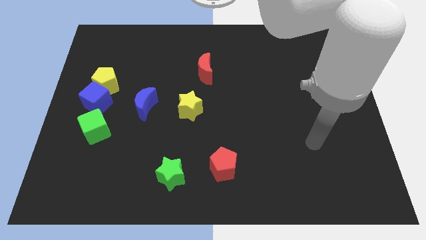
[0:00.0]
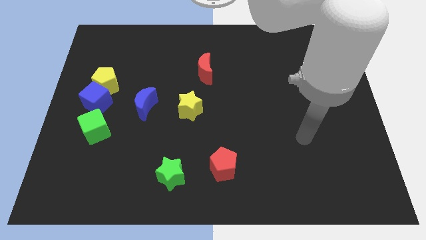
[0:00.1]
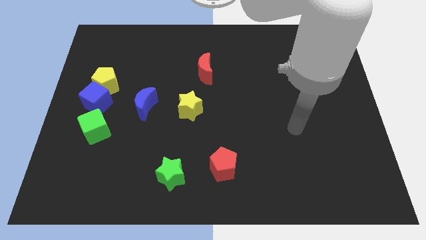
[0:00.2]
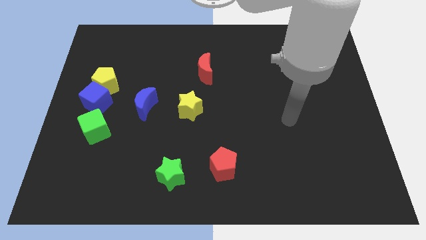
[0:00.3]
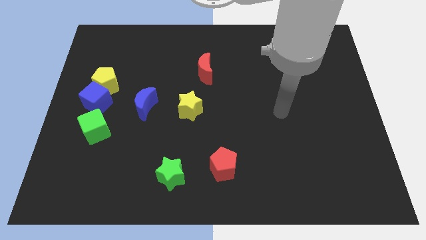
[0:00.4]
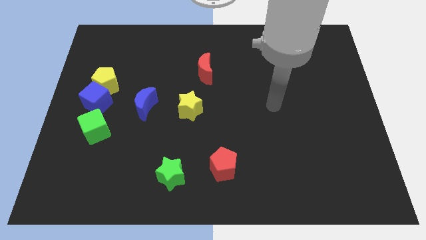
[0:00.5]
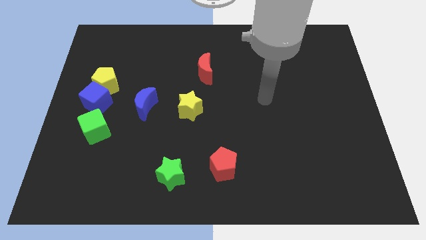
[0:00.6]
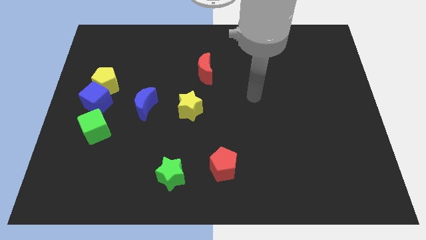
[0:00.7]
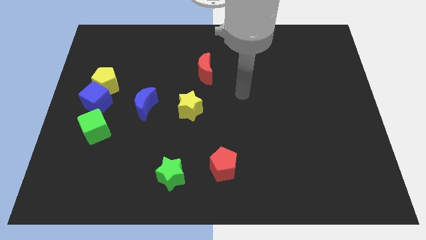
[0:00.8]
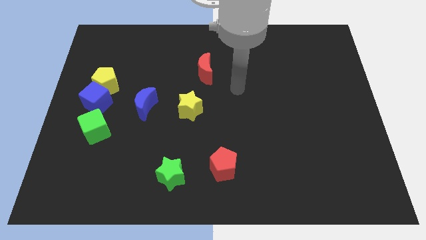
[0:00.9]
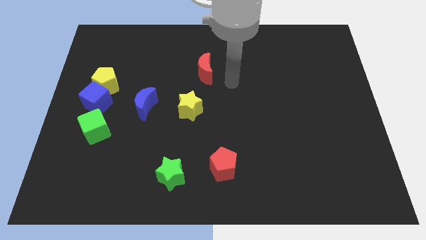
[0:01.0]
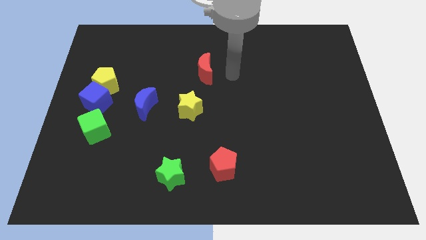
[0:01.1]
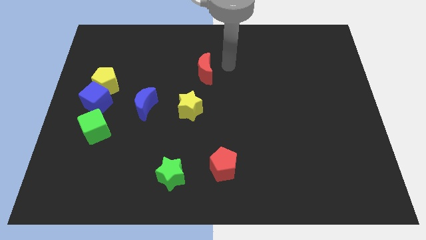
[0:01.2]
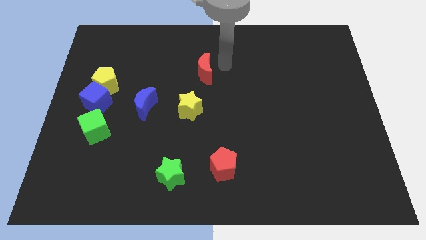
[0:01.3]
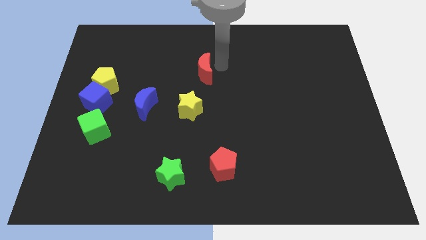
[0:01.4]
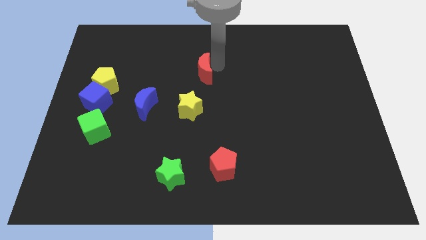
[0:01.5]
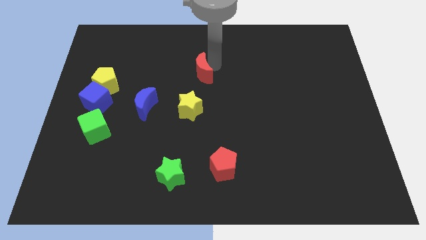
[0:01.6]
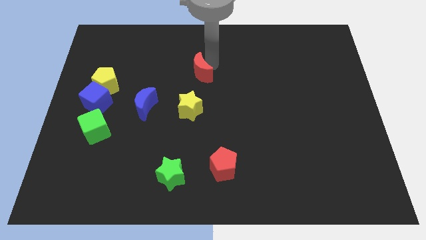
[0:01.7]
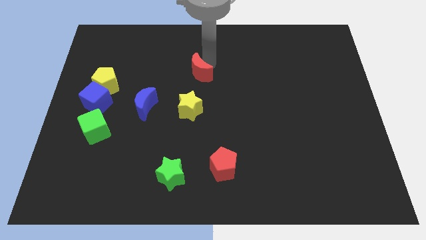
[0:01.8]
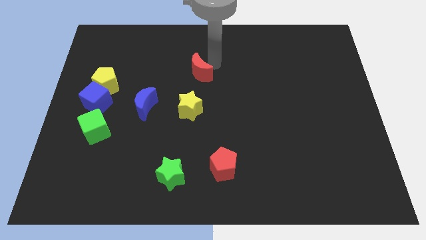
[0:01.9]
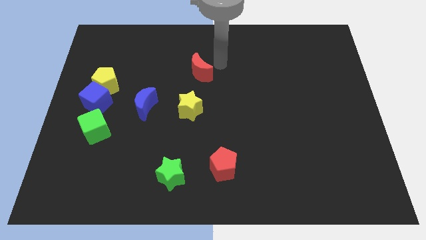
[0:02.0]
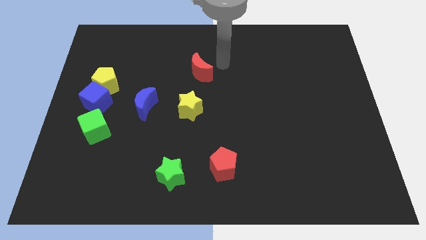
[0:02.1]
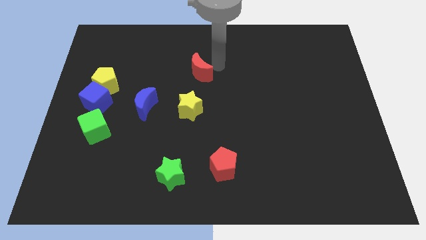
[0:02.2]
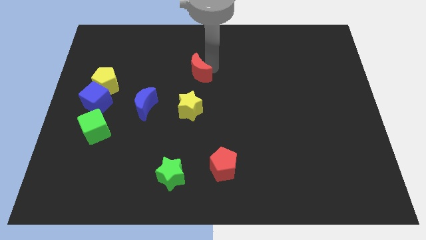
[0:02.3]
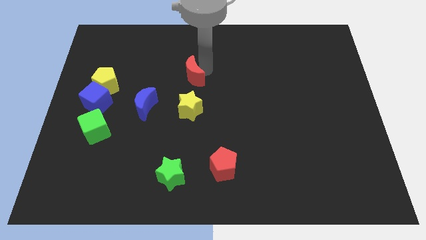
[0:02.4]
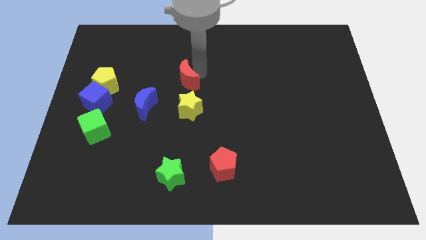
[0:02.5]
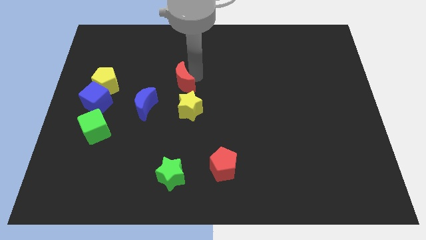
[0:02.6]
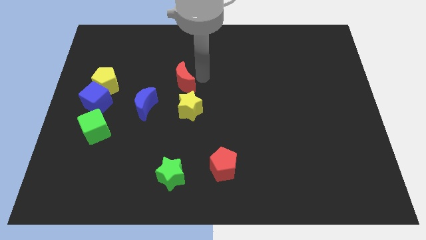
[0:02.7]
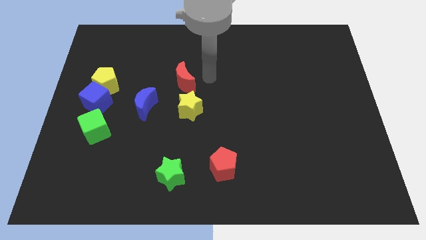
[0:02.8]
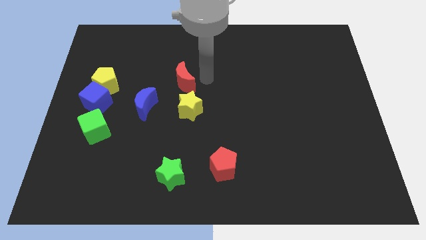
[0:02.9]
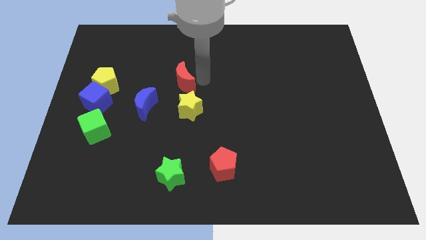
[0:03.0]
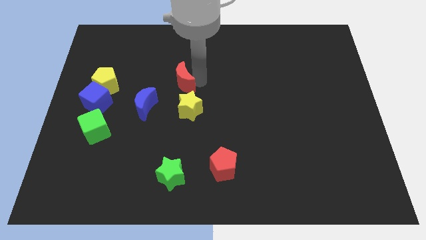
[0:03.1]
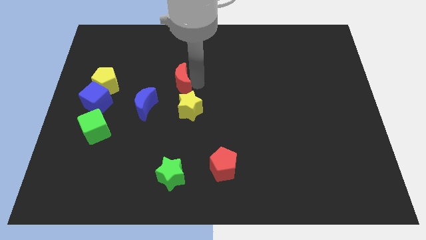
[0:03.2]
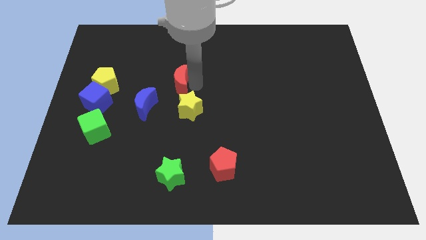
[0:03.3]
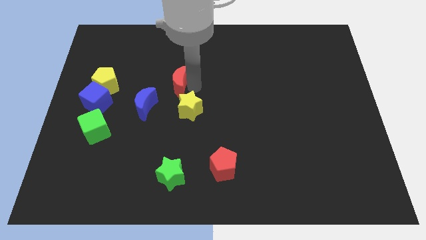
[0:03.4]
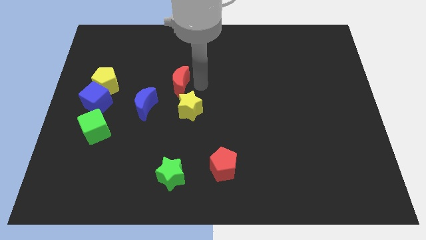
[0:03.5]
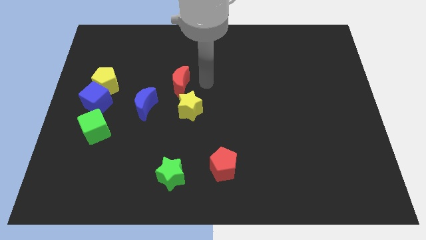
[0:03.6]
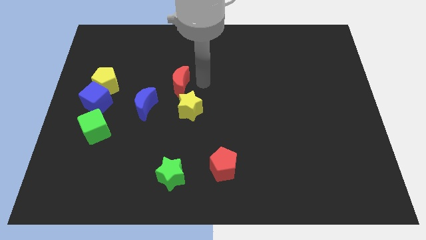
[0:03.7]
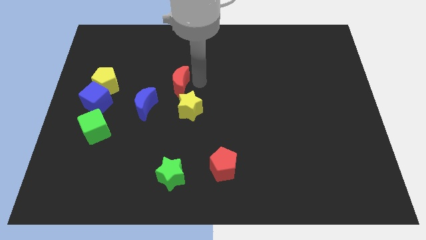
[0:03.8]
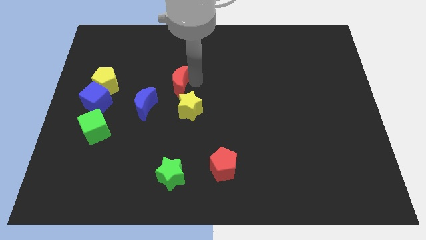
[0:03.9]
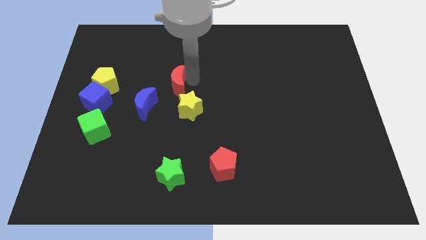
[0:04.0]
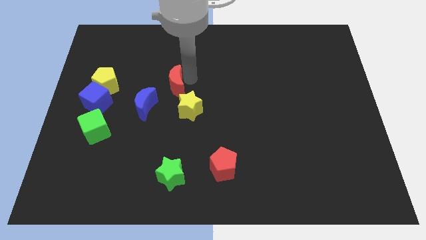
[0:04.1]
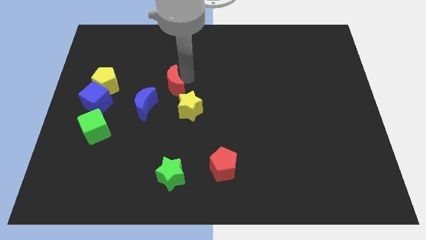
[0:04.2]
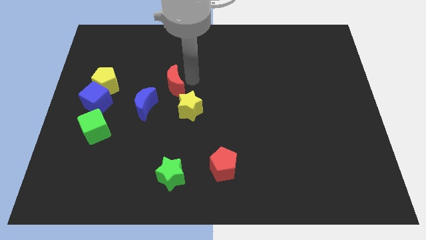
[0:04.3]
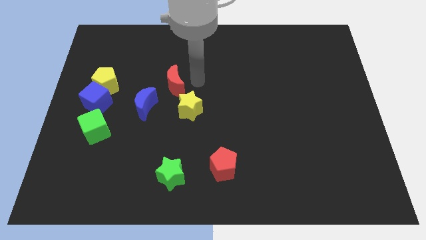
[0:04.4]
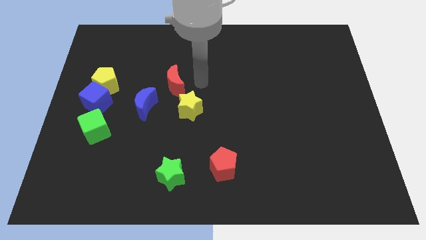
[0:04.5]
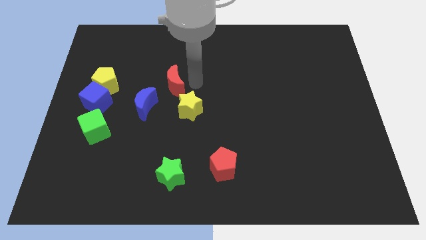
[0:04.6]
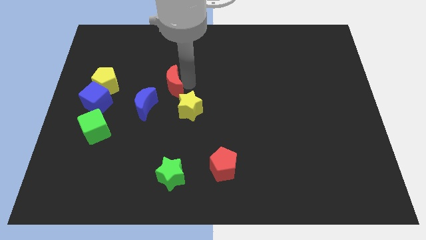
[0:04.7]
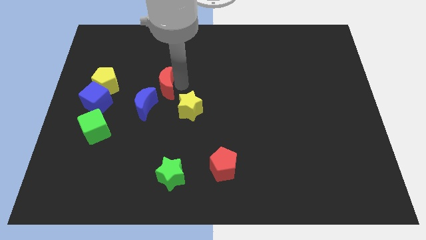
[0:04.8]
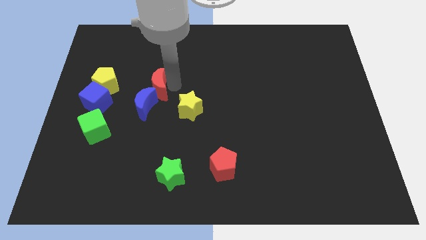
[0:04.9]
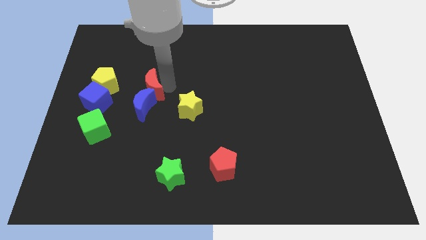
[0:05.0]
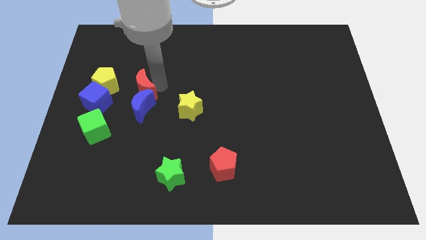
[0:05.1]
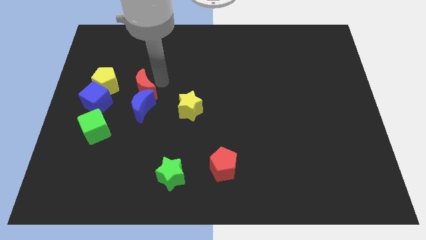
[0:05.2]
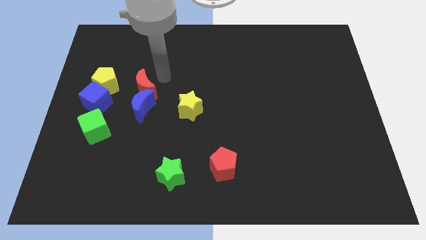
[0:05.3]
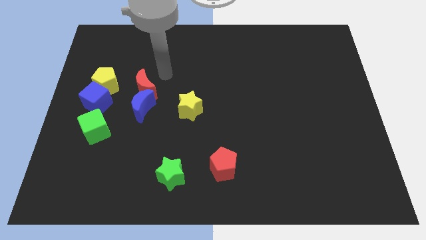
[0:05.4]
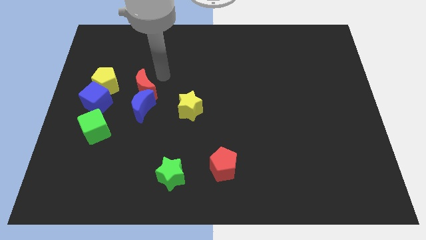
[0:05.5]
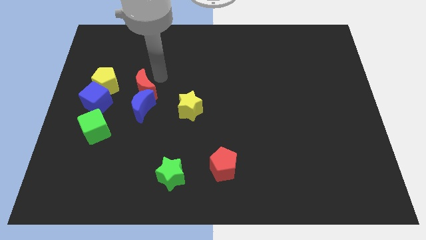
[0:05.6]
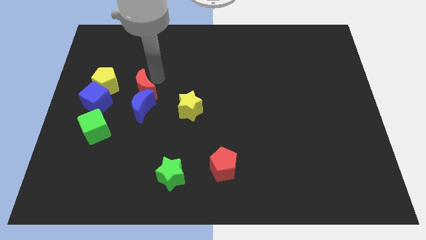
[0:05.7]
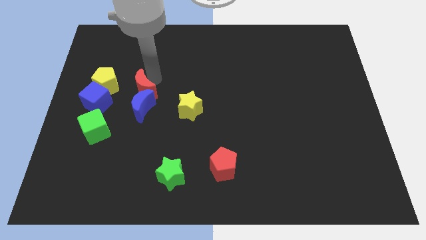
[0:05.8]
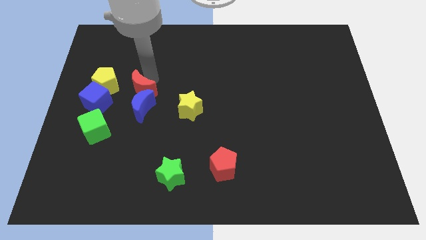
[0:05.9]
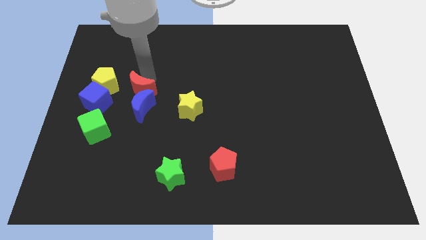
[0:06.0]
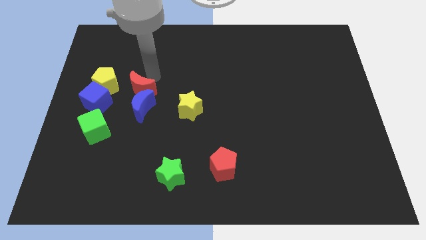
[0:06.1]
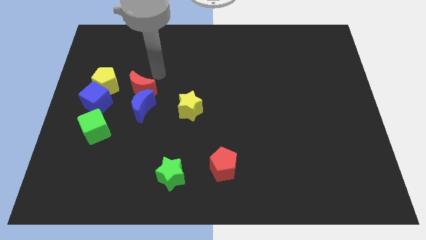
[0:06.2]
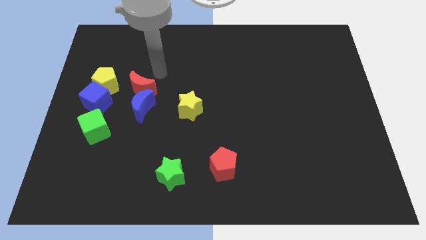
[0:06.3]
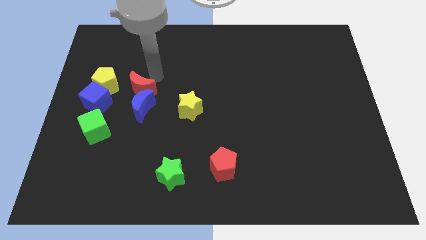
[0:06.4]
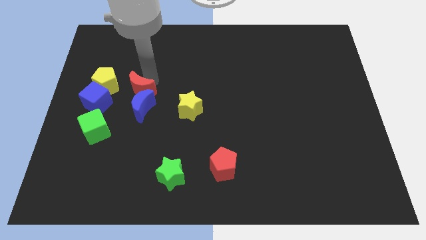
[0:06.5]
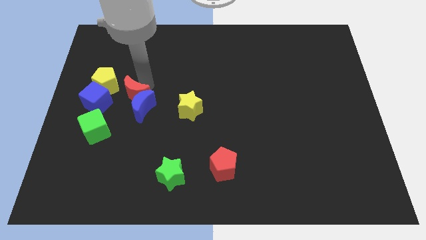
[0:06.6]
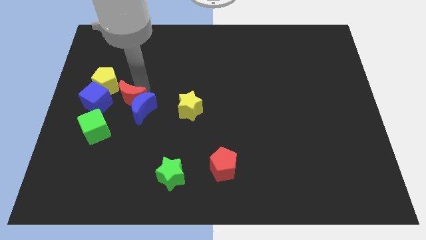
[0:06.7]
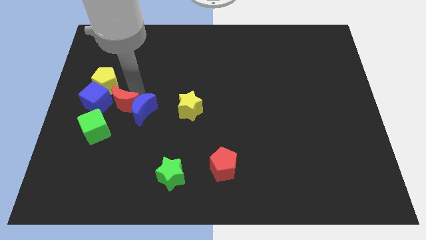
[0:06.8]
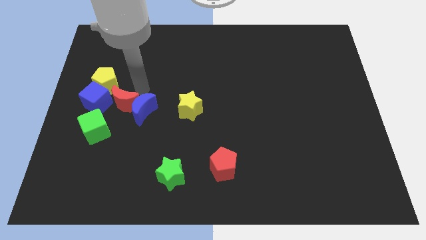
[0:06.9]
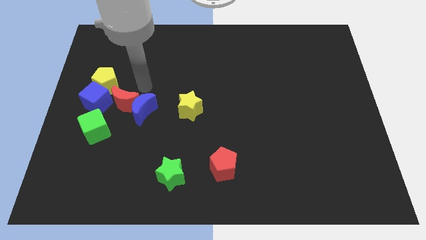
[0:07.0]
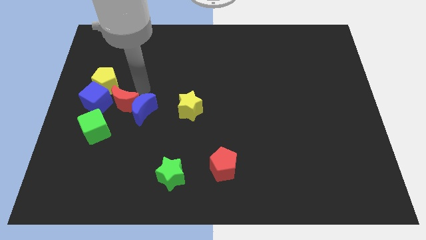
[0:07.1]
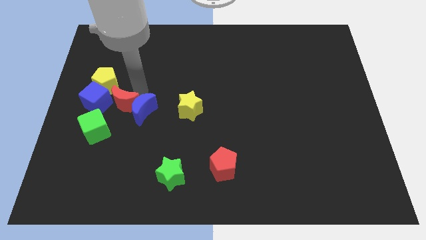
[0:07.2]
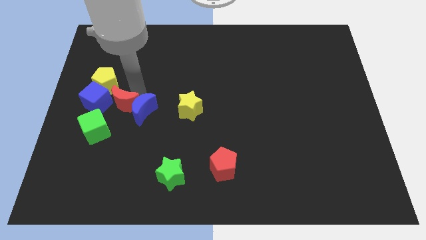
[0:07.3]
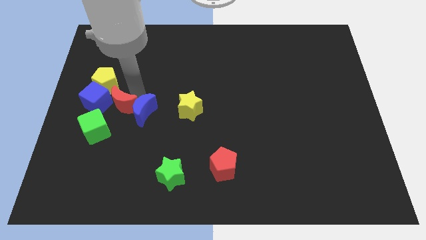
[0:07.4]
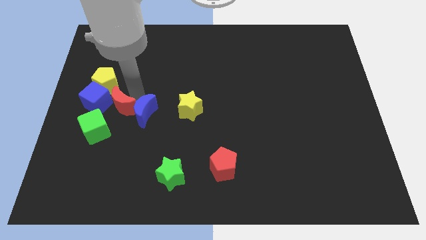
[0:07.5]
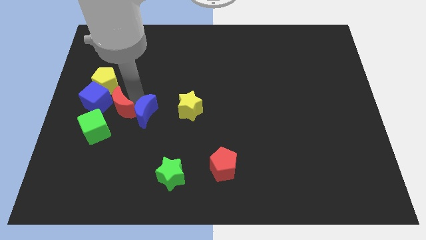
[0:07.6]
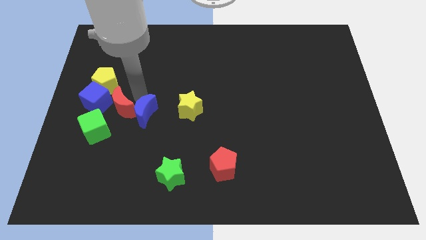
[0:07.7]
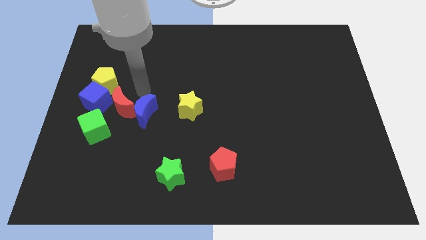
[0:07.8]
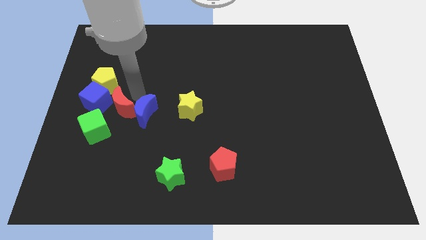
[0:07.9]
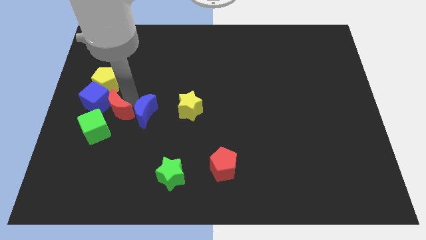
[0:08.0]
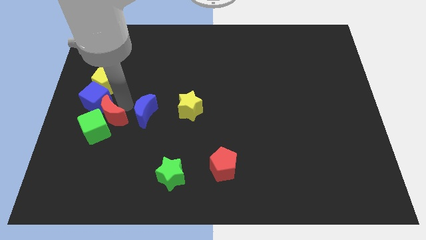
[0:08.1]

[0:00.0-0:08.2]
put the red moon to the green cube
